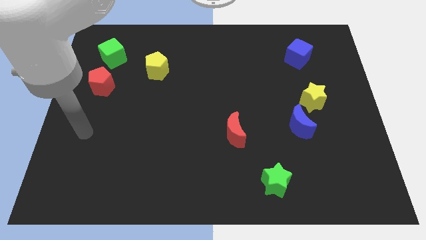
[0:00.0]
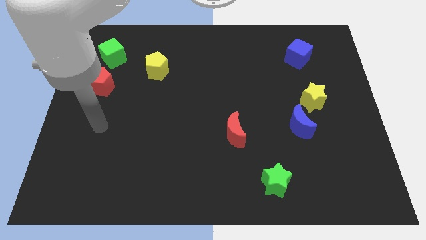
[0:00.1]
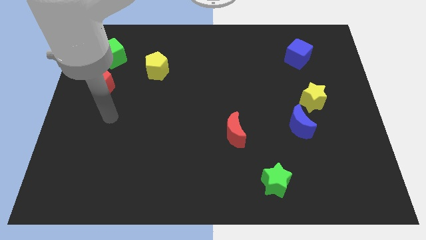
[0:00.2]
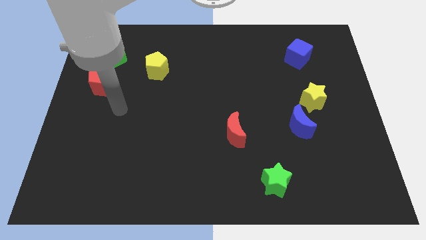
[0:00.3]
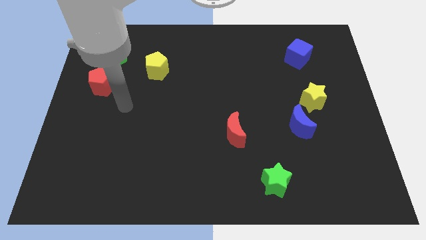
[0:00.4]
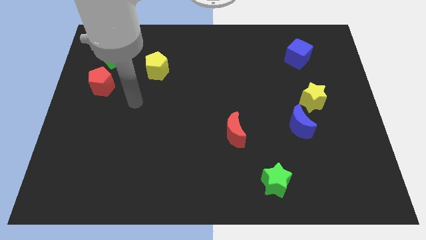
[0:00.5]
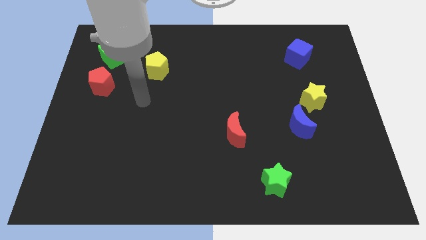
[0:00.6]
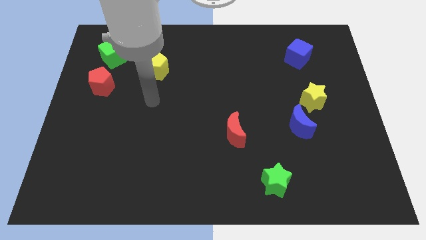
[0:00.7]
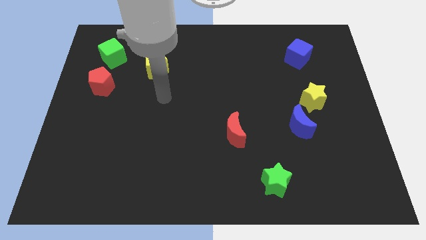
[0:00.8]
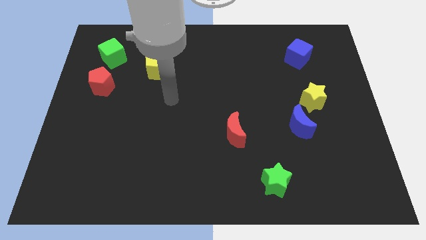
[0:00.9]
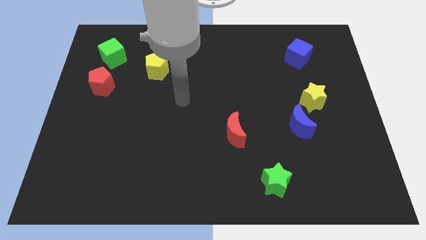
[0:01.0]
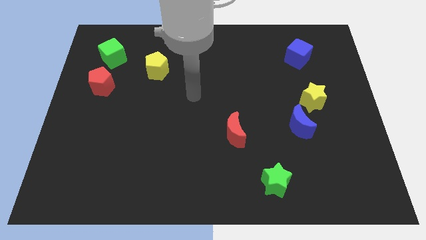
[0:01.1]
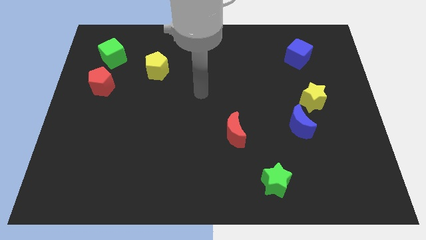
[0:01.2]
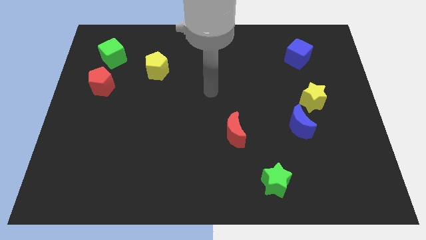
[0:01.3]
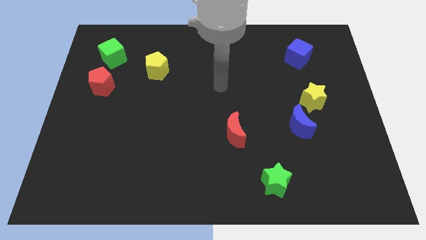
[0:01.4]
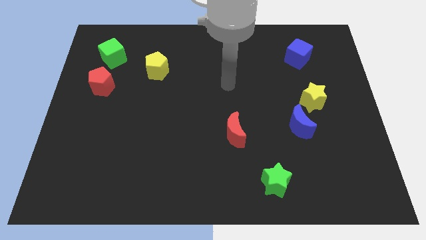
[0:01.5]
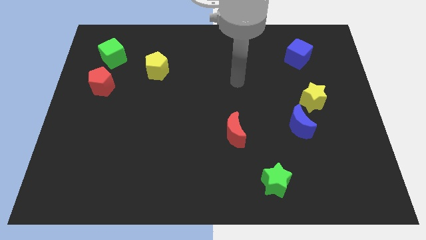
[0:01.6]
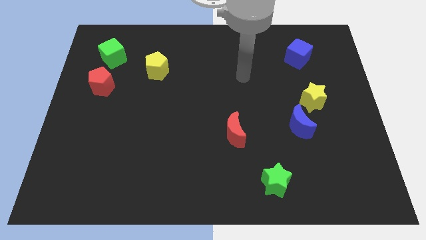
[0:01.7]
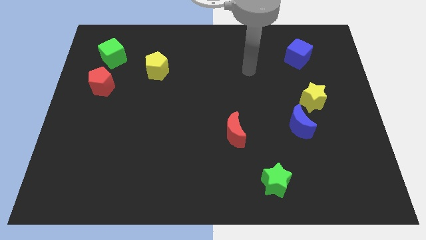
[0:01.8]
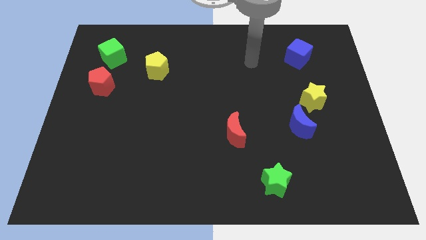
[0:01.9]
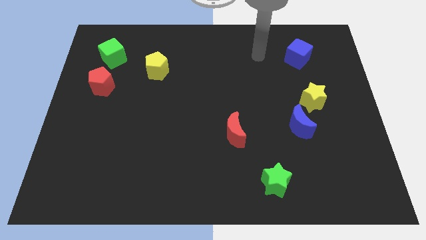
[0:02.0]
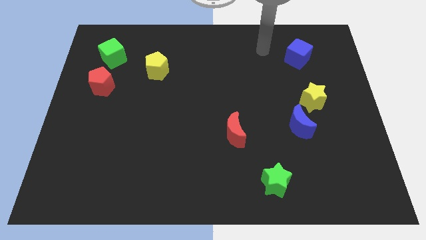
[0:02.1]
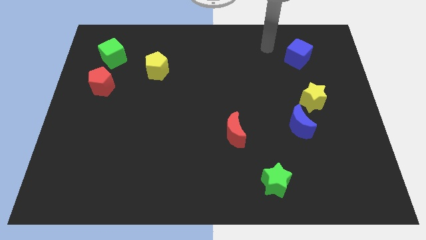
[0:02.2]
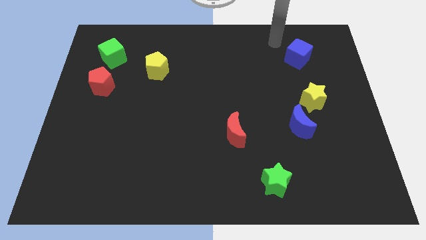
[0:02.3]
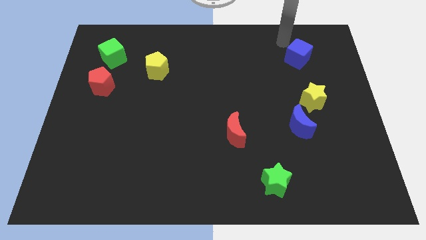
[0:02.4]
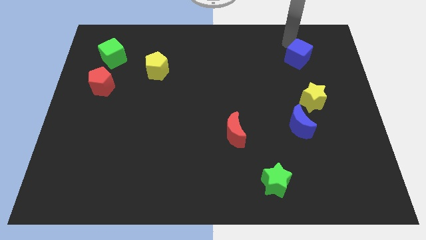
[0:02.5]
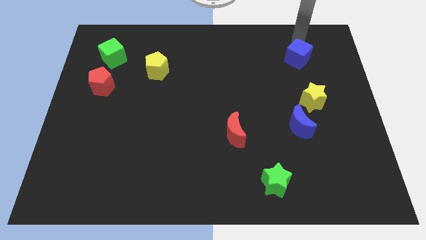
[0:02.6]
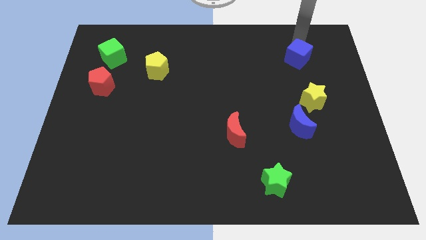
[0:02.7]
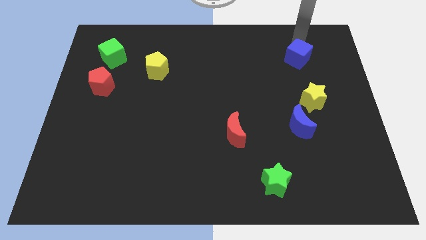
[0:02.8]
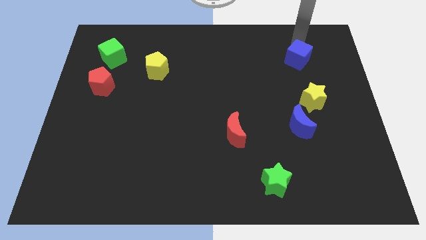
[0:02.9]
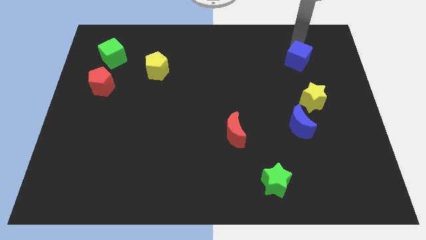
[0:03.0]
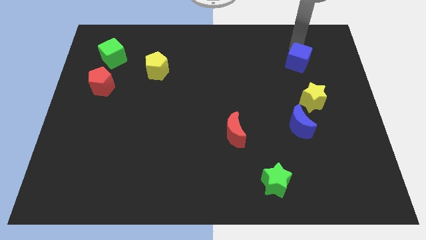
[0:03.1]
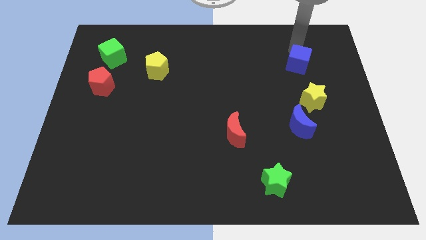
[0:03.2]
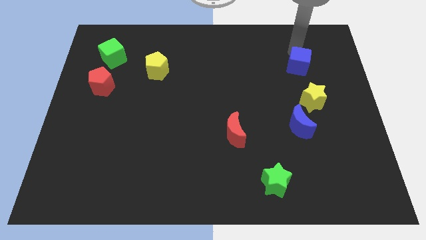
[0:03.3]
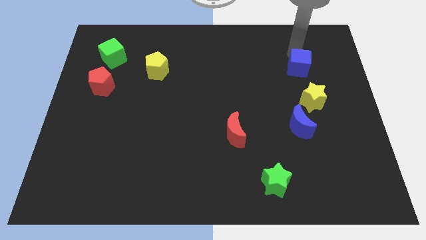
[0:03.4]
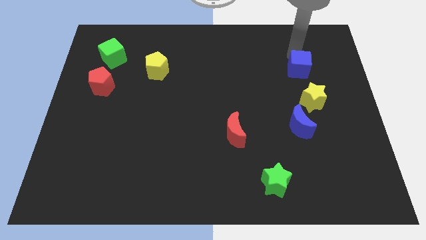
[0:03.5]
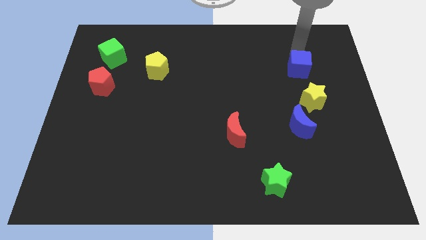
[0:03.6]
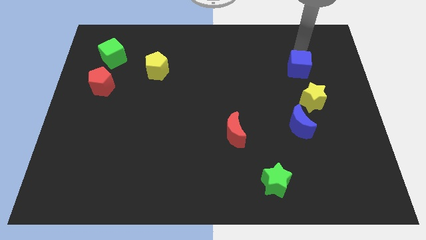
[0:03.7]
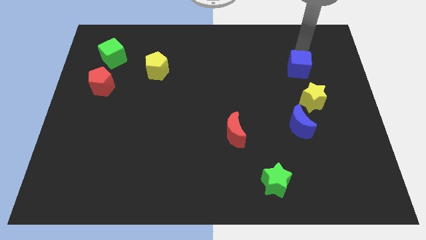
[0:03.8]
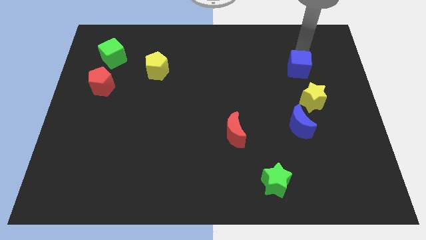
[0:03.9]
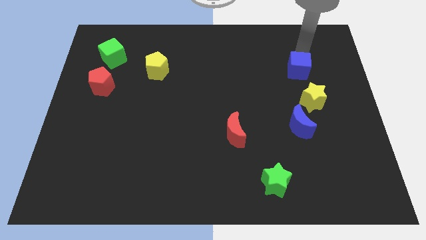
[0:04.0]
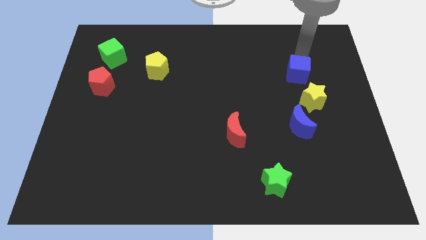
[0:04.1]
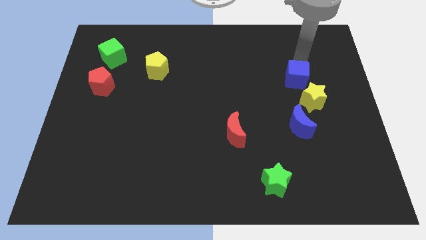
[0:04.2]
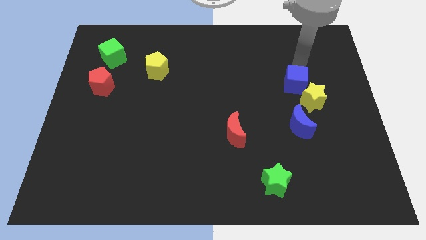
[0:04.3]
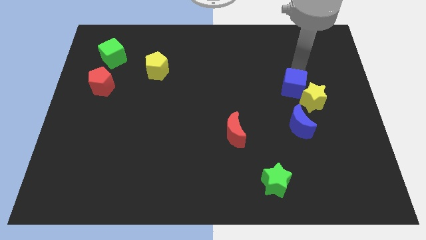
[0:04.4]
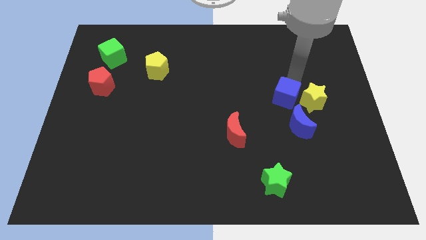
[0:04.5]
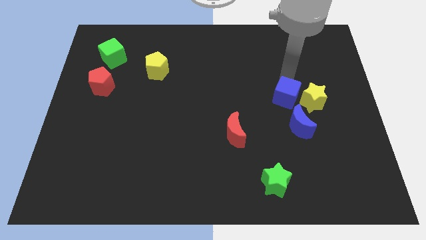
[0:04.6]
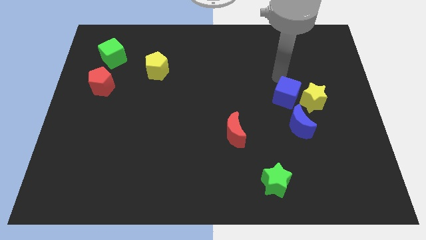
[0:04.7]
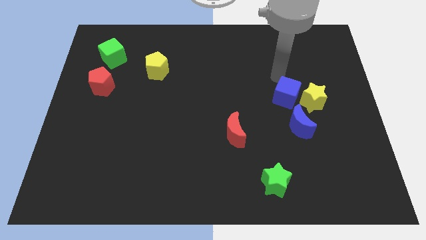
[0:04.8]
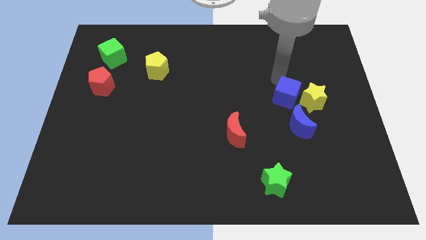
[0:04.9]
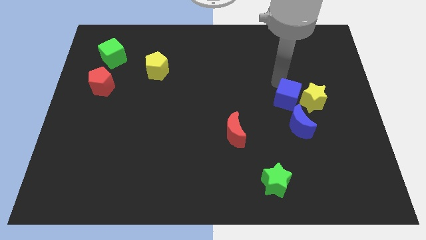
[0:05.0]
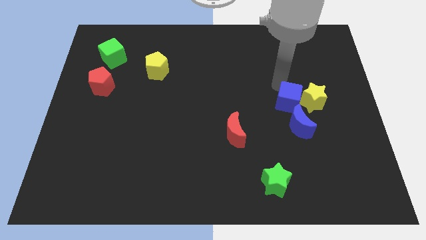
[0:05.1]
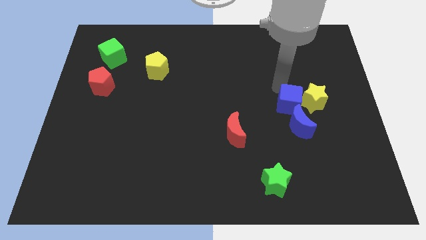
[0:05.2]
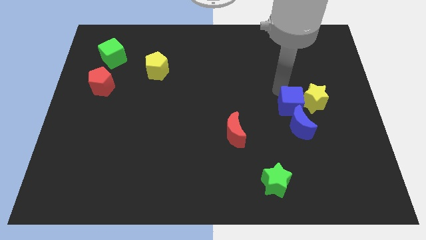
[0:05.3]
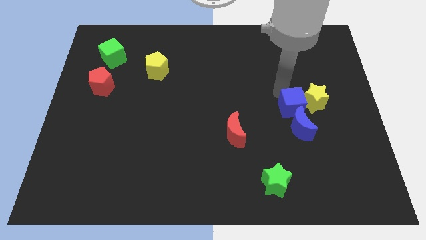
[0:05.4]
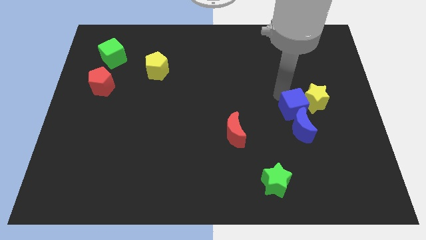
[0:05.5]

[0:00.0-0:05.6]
slide the blue cube to the blue moon

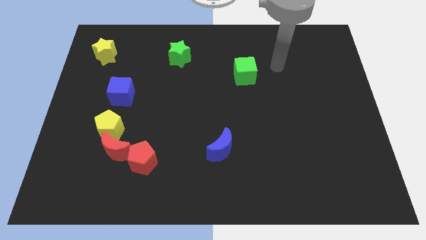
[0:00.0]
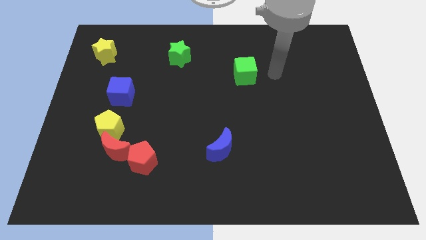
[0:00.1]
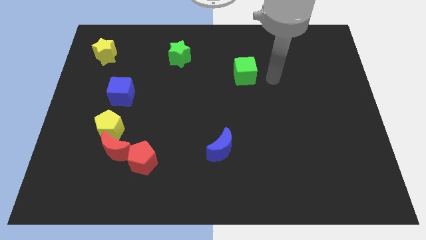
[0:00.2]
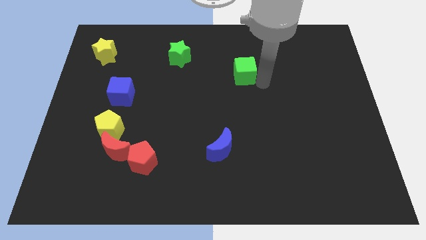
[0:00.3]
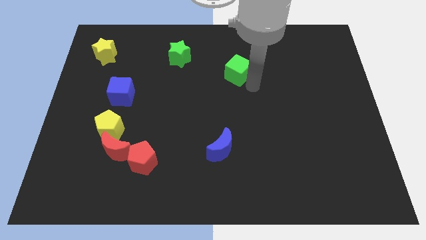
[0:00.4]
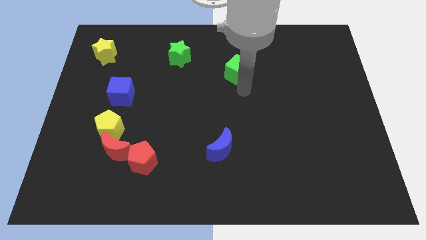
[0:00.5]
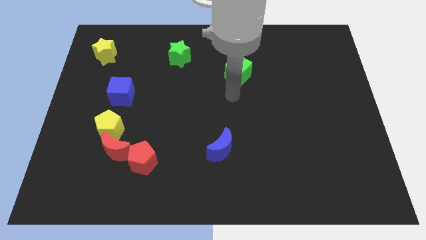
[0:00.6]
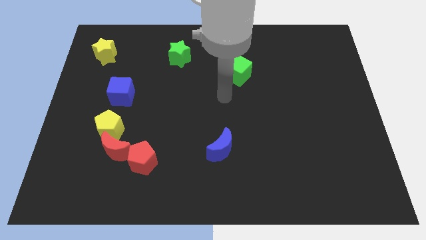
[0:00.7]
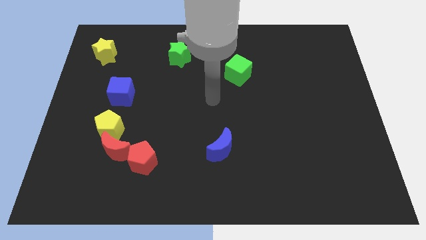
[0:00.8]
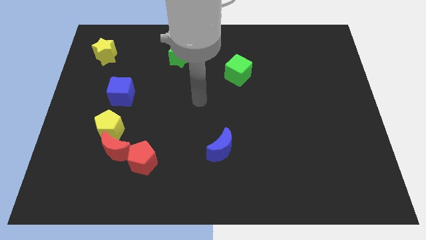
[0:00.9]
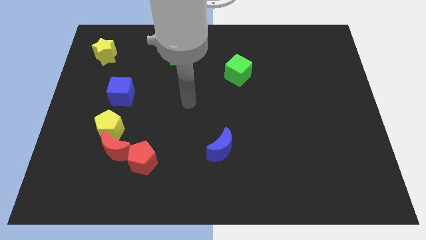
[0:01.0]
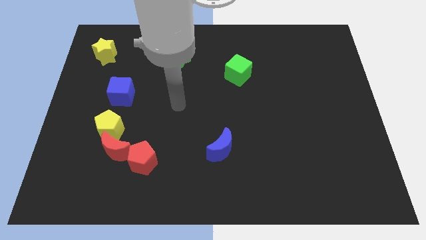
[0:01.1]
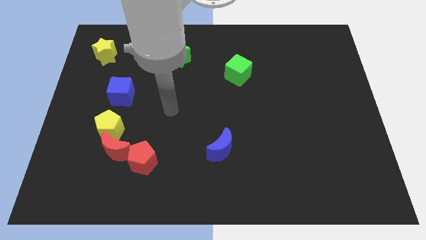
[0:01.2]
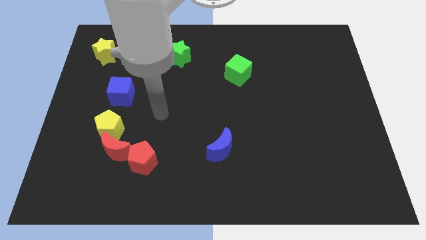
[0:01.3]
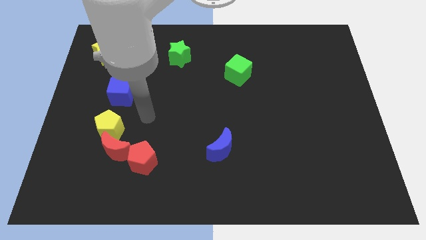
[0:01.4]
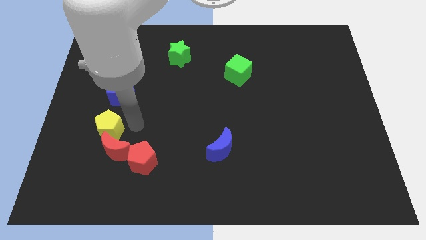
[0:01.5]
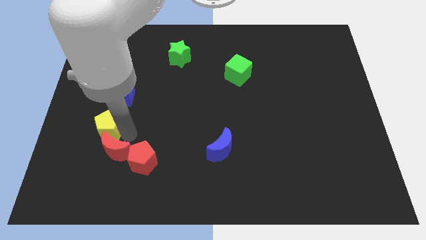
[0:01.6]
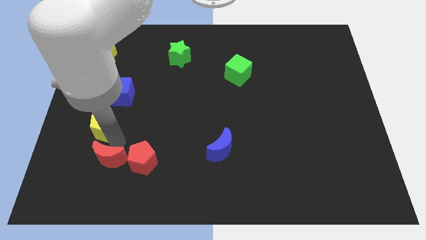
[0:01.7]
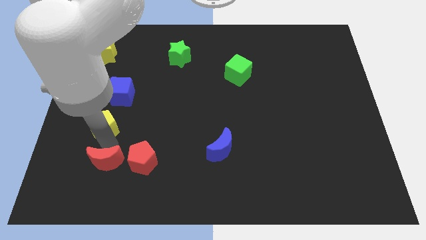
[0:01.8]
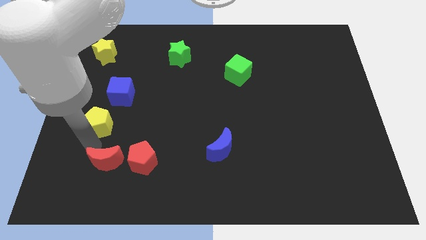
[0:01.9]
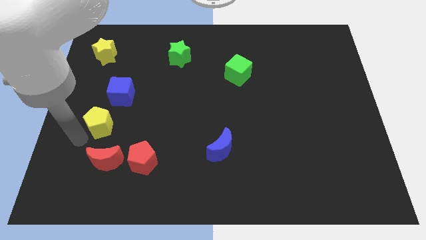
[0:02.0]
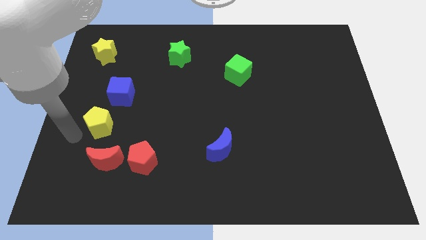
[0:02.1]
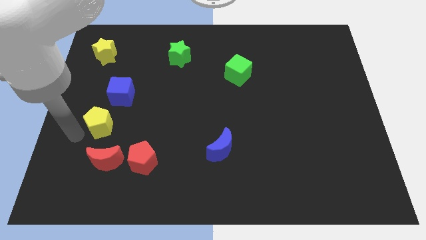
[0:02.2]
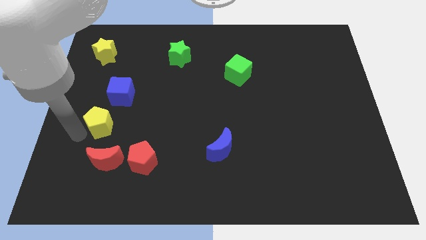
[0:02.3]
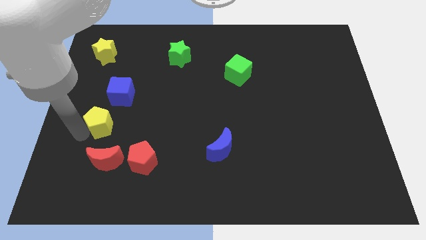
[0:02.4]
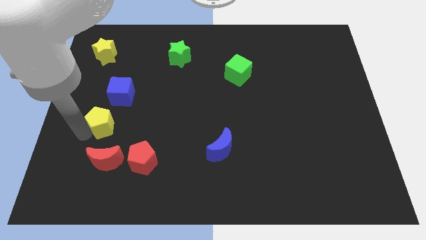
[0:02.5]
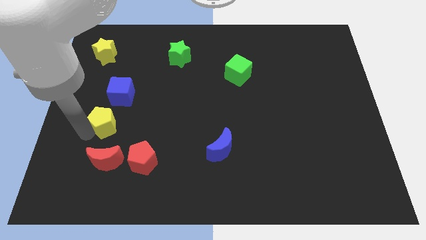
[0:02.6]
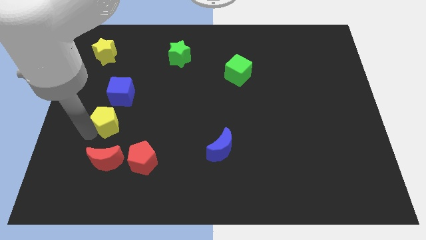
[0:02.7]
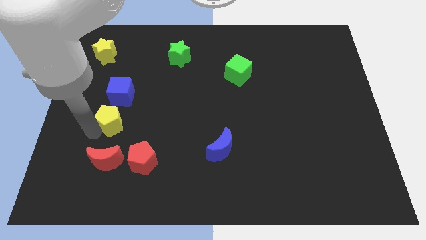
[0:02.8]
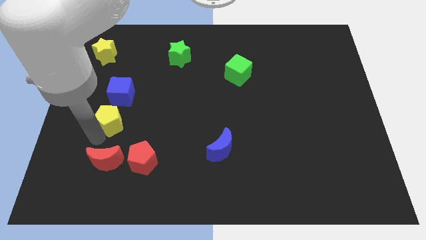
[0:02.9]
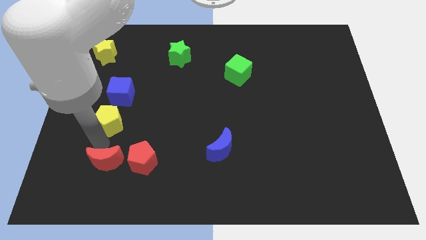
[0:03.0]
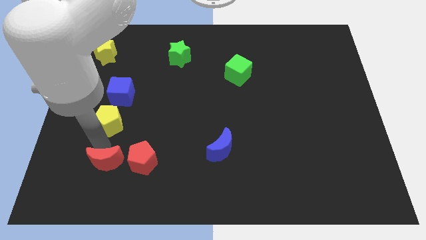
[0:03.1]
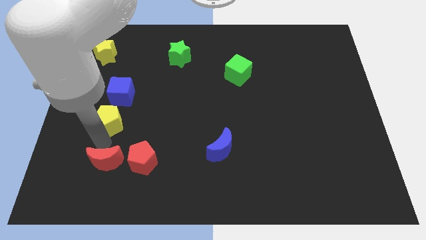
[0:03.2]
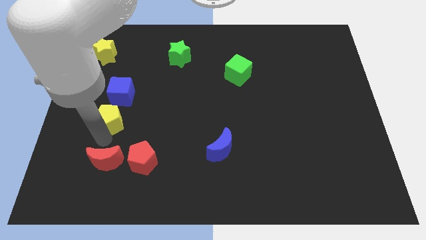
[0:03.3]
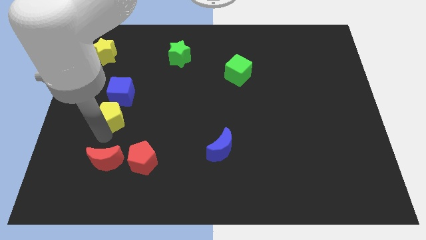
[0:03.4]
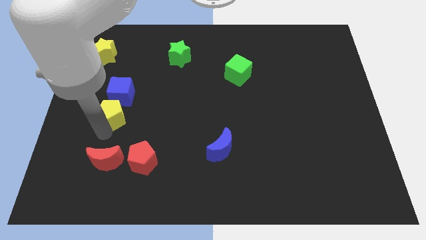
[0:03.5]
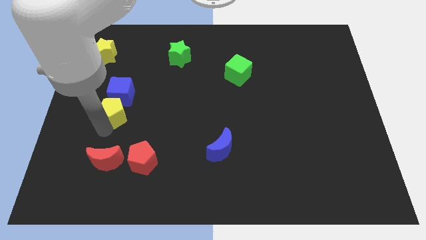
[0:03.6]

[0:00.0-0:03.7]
push the yellow pentagon next to the blue cube
